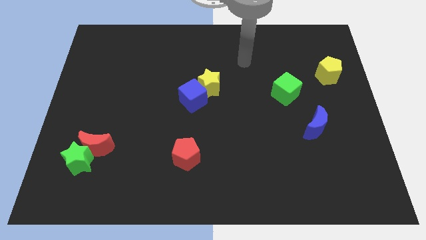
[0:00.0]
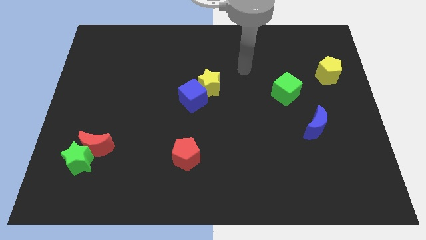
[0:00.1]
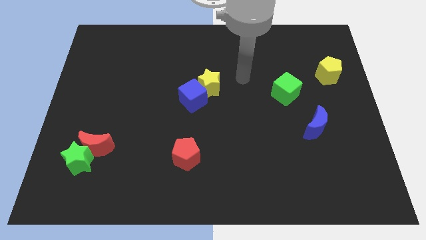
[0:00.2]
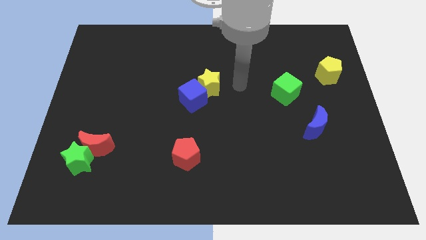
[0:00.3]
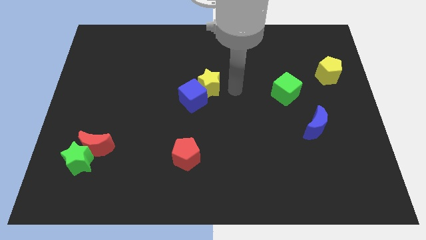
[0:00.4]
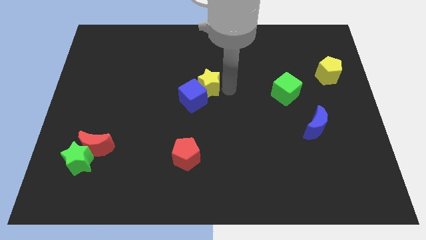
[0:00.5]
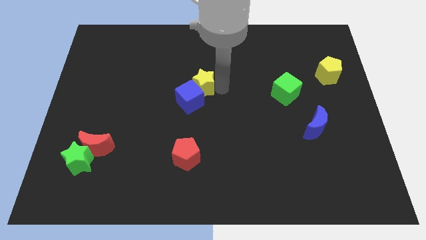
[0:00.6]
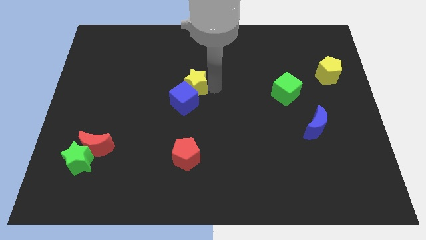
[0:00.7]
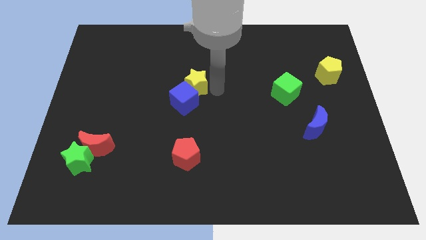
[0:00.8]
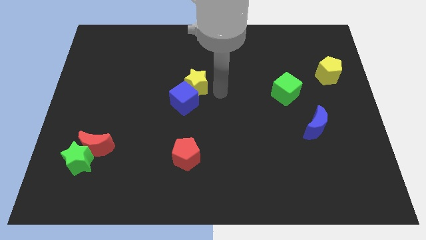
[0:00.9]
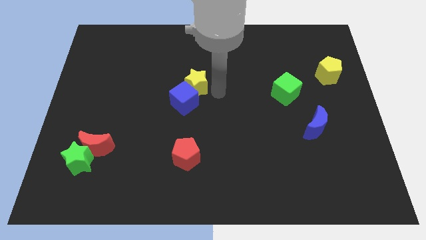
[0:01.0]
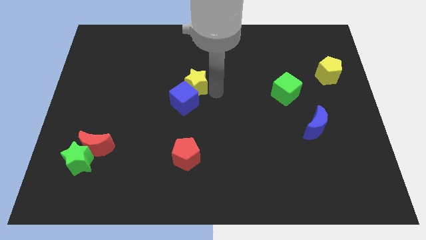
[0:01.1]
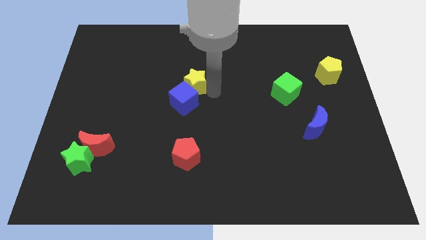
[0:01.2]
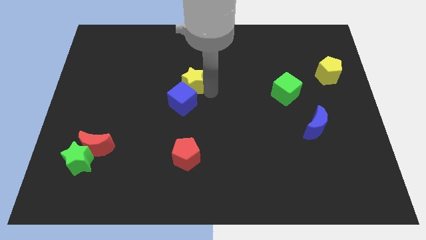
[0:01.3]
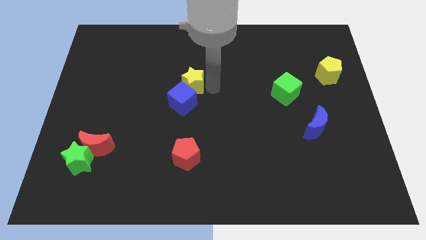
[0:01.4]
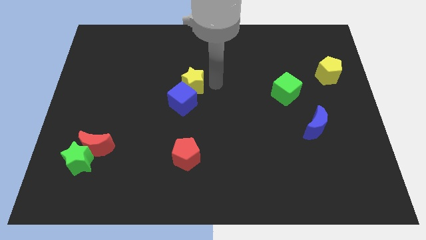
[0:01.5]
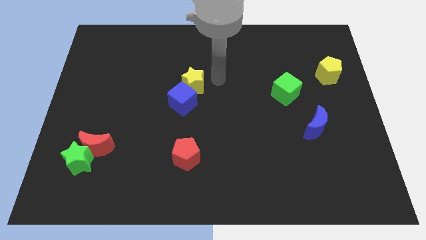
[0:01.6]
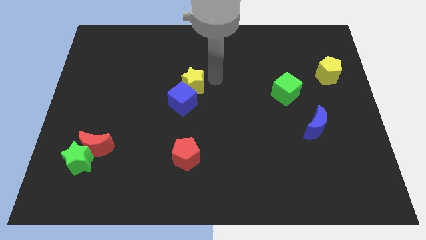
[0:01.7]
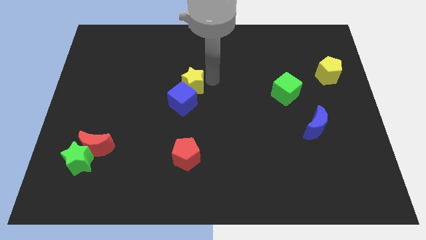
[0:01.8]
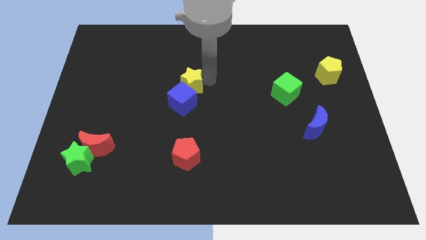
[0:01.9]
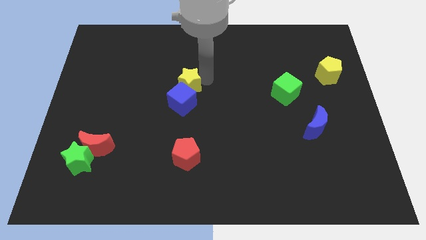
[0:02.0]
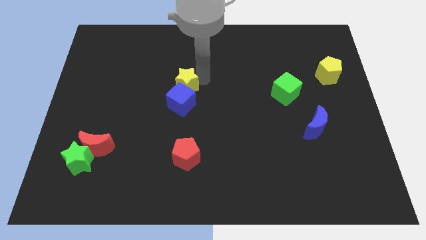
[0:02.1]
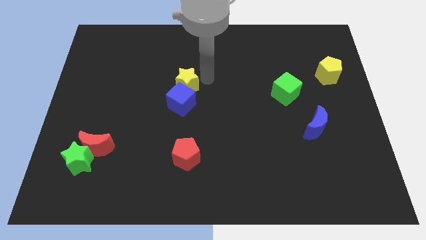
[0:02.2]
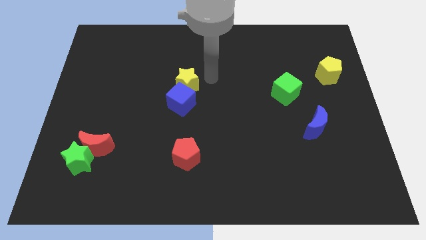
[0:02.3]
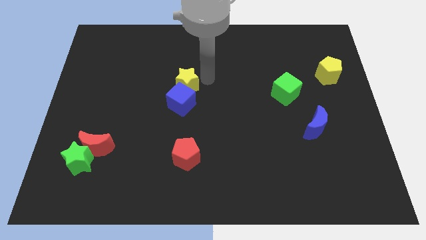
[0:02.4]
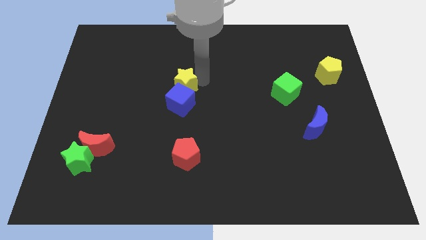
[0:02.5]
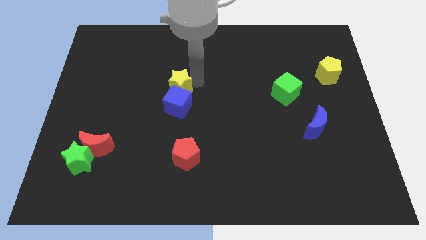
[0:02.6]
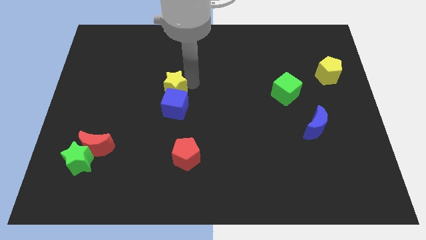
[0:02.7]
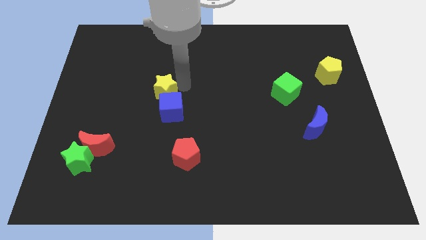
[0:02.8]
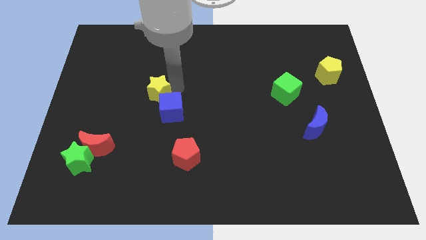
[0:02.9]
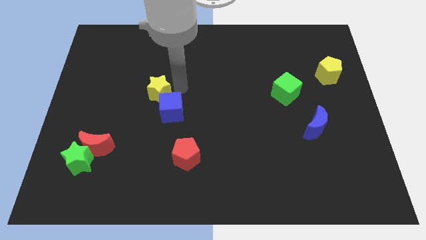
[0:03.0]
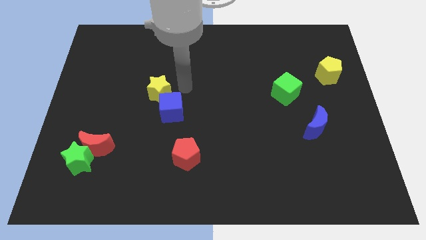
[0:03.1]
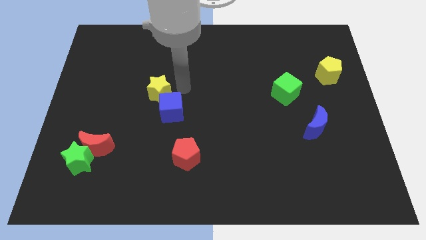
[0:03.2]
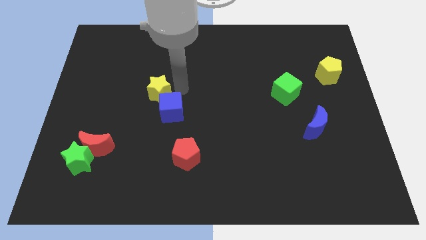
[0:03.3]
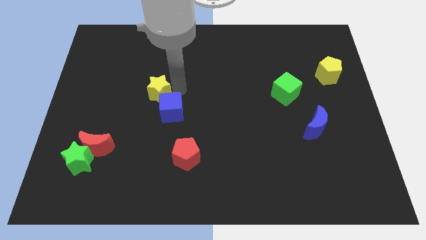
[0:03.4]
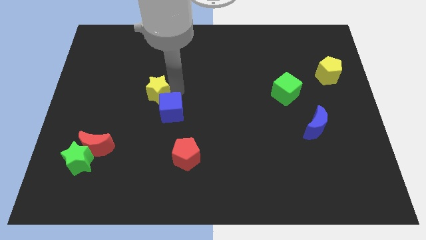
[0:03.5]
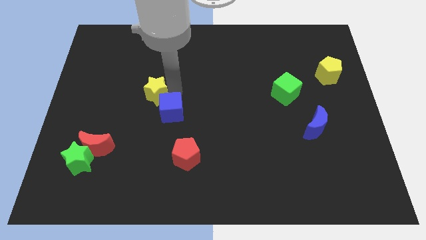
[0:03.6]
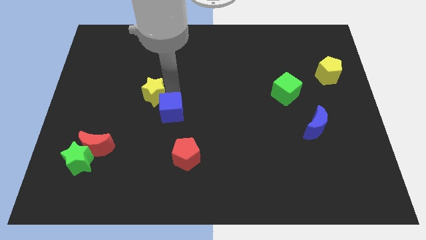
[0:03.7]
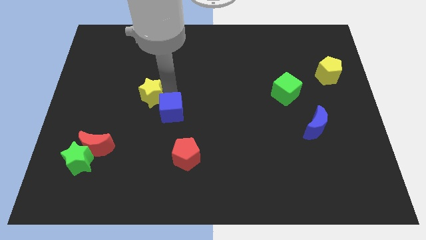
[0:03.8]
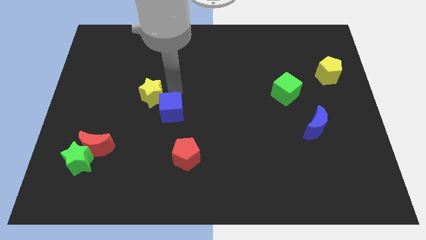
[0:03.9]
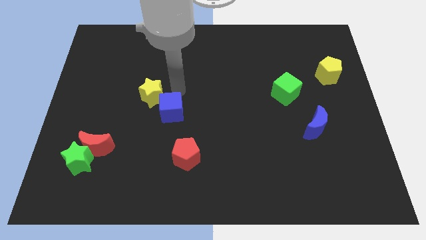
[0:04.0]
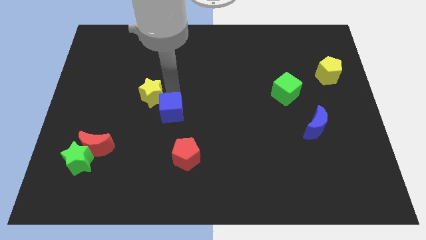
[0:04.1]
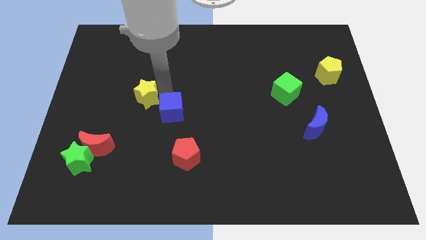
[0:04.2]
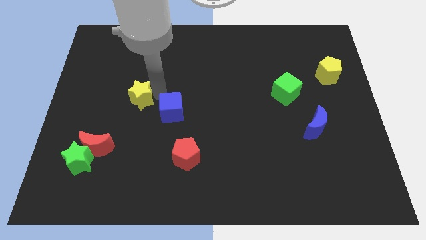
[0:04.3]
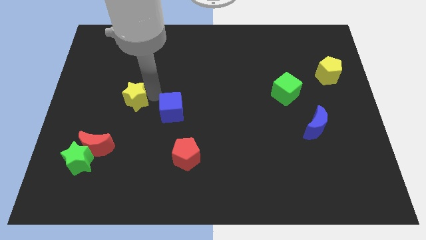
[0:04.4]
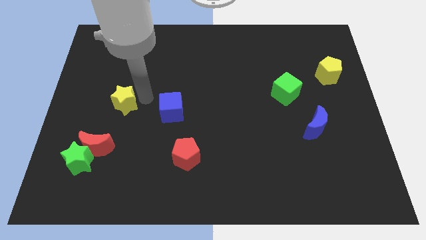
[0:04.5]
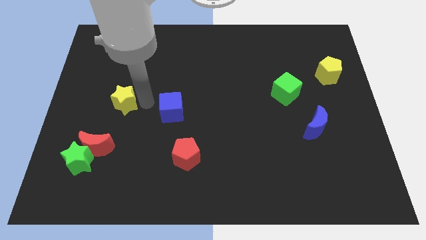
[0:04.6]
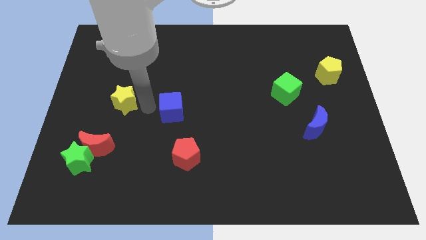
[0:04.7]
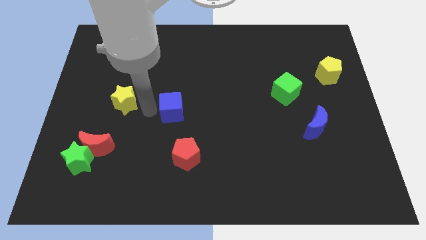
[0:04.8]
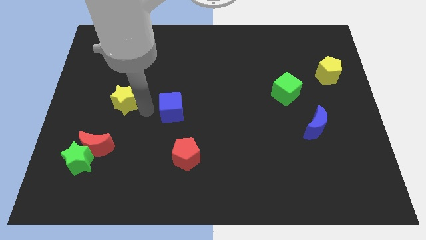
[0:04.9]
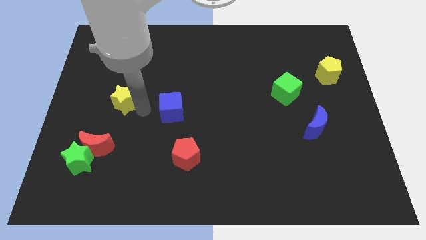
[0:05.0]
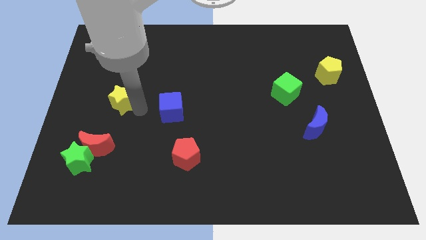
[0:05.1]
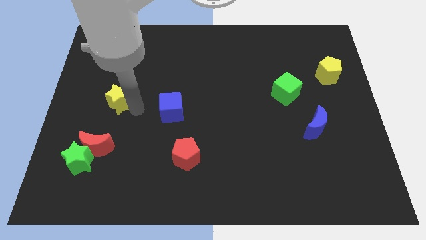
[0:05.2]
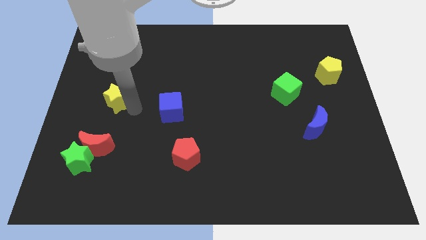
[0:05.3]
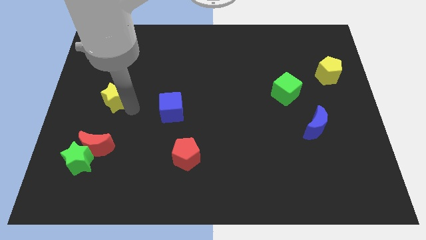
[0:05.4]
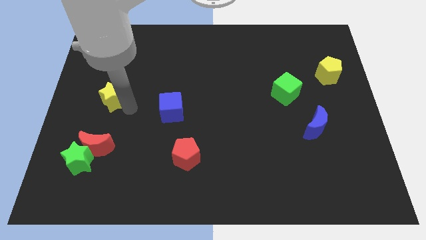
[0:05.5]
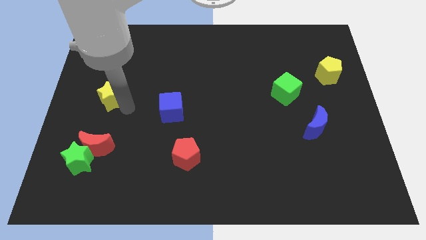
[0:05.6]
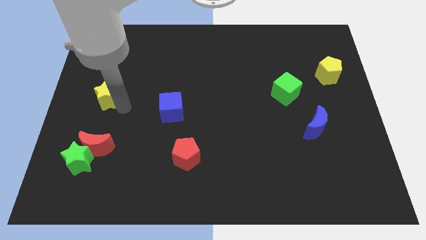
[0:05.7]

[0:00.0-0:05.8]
put the yellow star to the left side

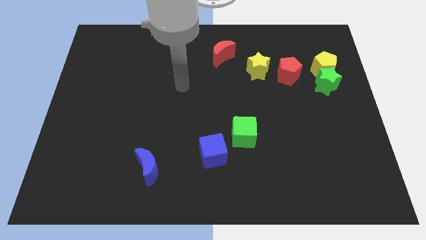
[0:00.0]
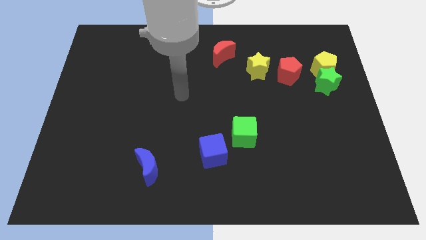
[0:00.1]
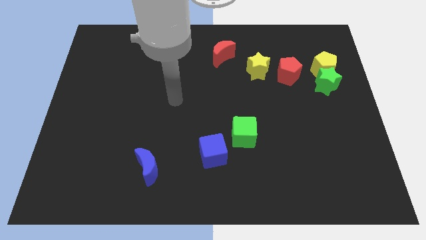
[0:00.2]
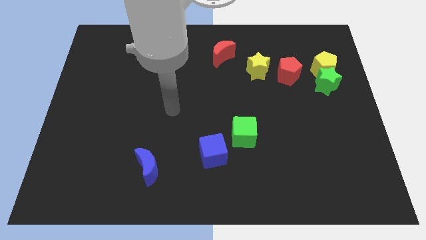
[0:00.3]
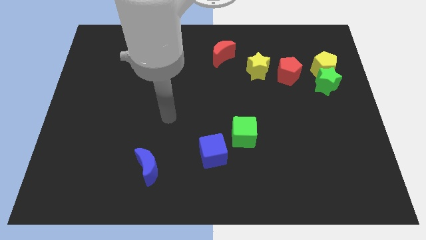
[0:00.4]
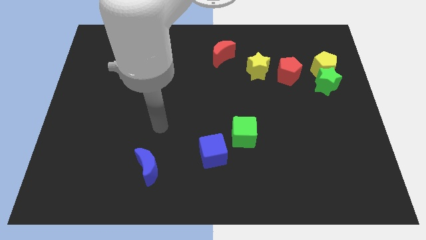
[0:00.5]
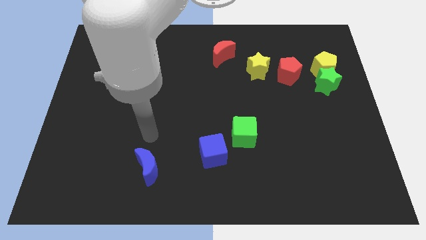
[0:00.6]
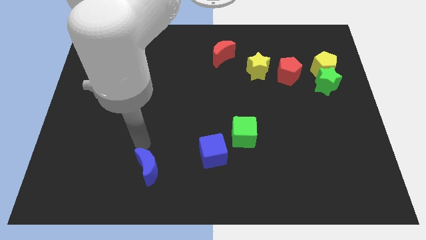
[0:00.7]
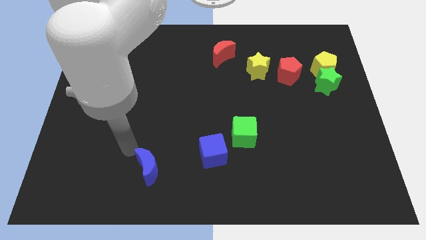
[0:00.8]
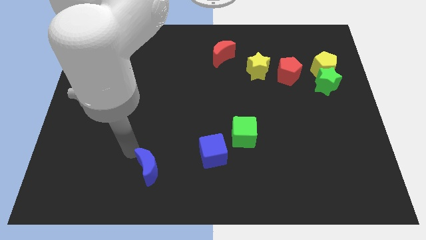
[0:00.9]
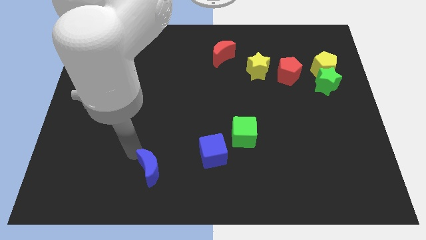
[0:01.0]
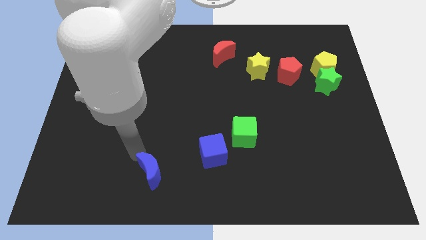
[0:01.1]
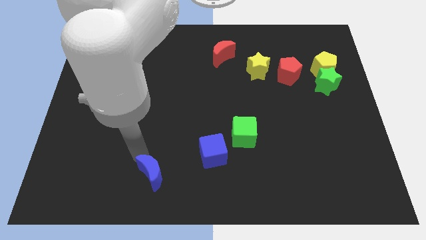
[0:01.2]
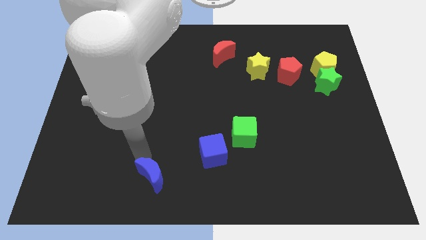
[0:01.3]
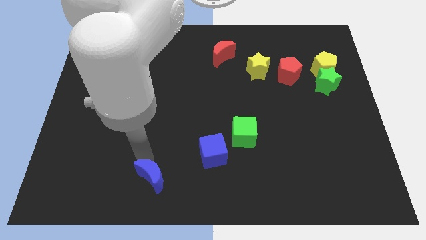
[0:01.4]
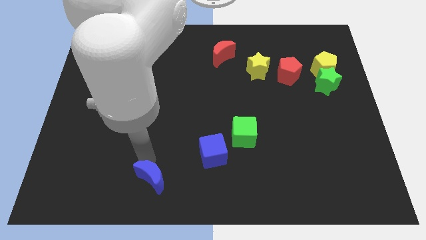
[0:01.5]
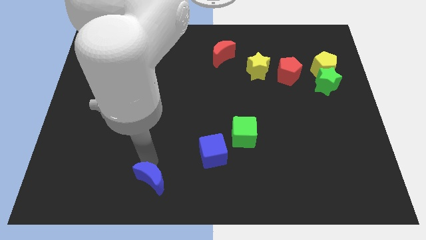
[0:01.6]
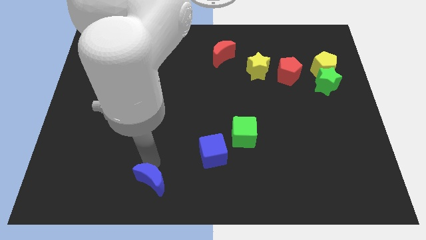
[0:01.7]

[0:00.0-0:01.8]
slide the blue moon to the bottom
